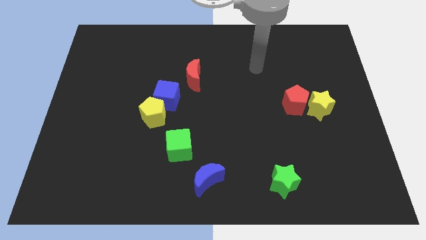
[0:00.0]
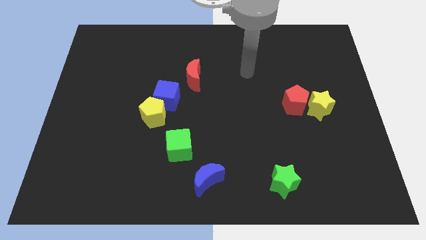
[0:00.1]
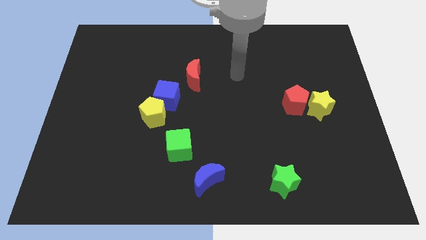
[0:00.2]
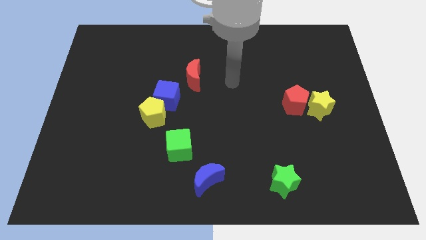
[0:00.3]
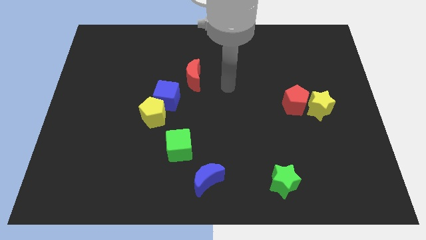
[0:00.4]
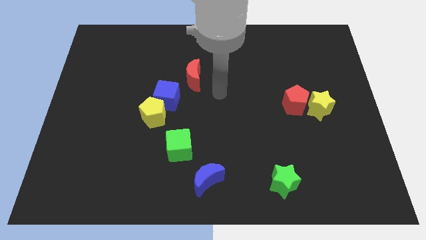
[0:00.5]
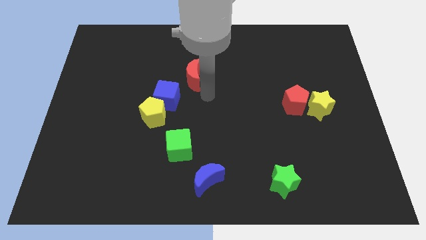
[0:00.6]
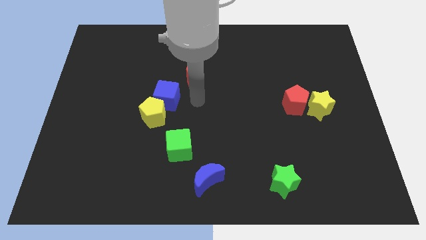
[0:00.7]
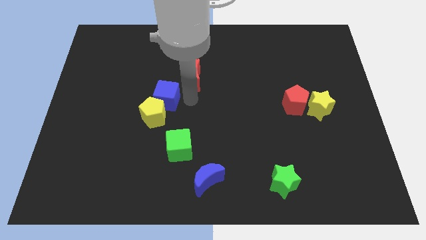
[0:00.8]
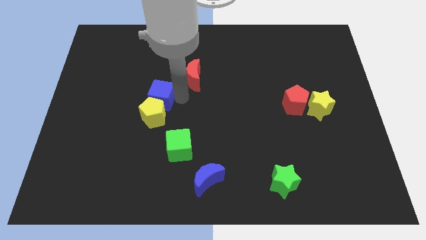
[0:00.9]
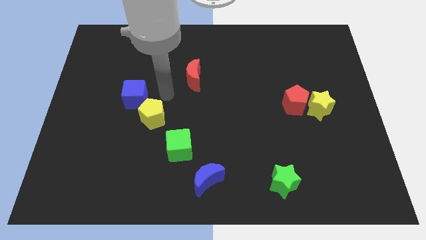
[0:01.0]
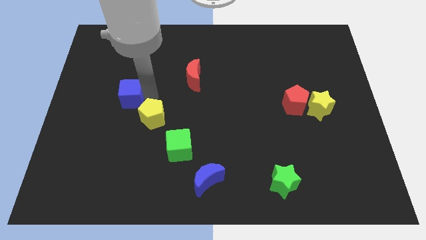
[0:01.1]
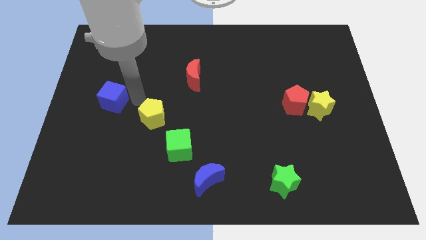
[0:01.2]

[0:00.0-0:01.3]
pull the yellow pentagon apart from the blue cube

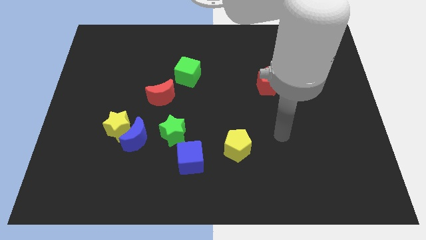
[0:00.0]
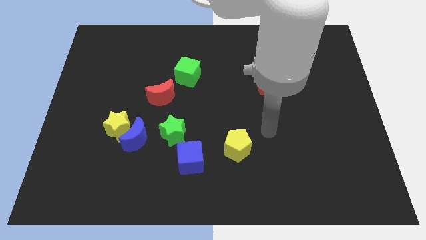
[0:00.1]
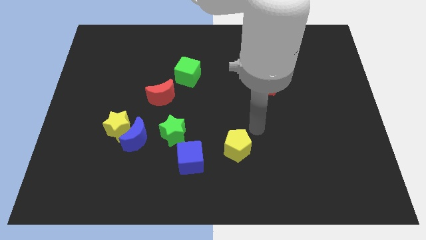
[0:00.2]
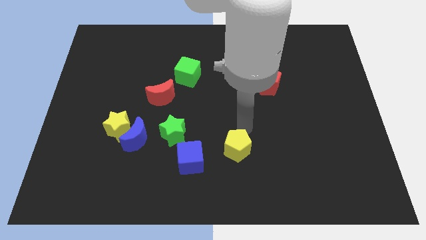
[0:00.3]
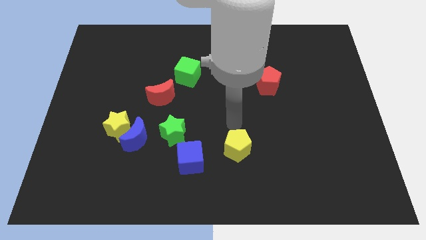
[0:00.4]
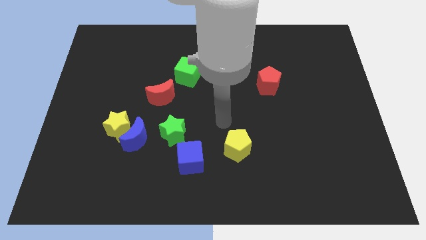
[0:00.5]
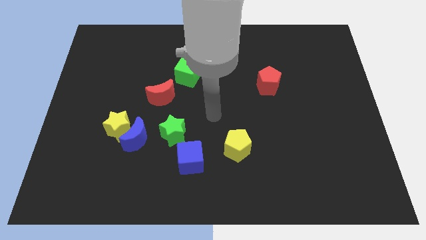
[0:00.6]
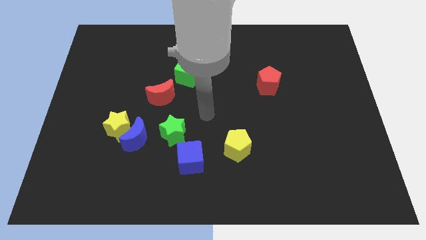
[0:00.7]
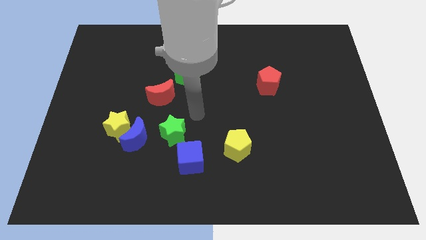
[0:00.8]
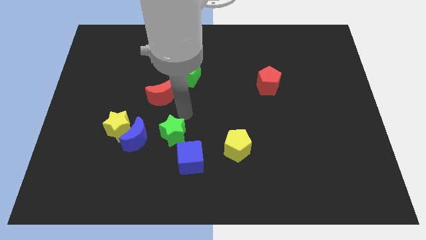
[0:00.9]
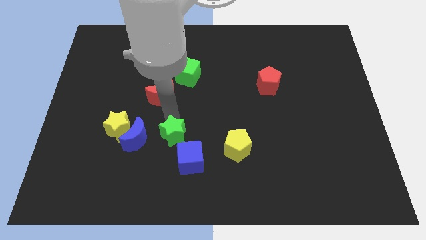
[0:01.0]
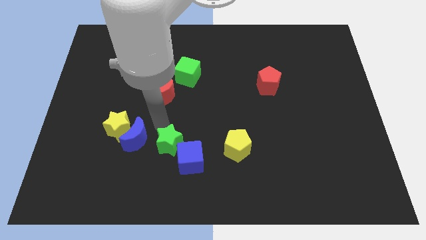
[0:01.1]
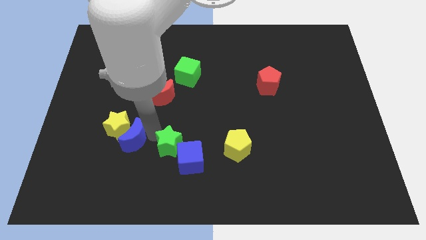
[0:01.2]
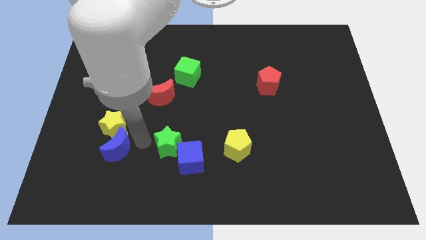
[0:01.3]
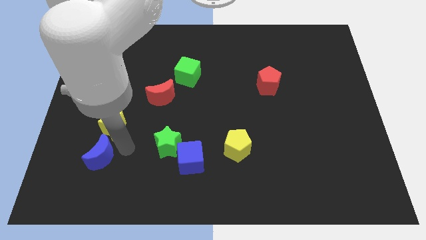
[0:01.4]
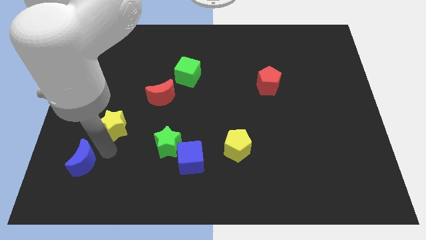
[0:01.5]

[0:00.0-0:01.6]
pull the yellow star apart from the blue moon

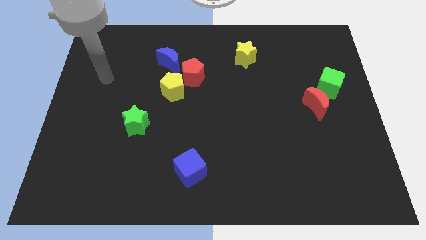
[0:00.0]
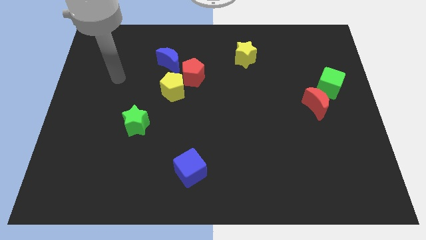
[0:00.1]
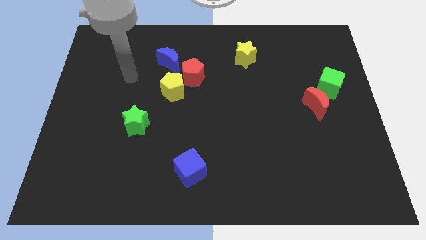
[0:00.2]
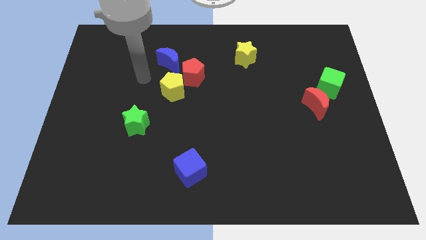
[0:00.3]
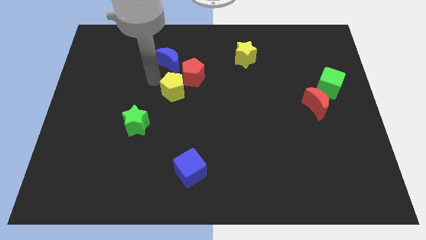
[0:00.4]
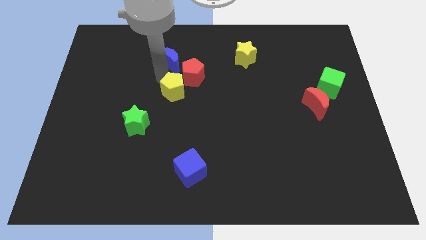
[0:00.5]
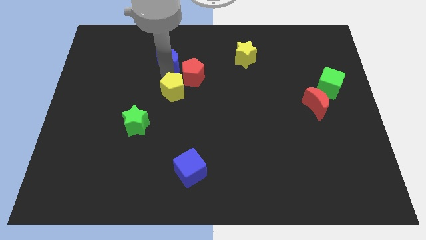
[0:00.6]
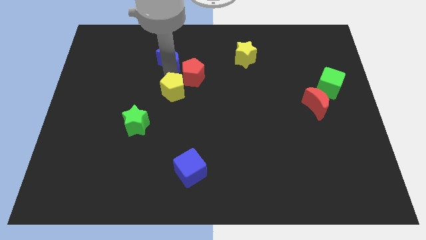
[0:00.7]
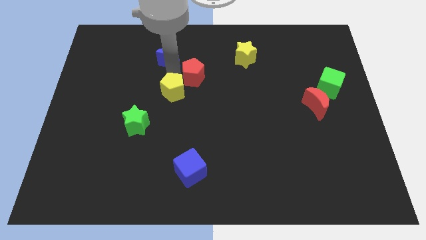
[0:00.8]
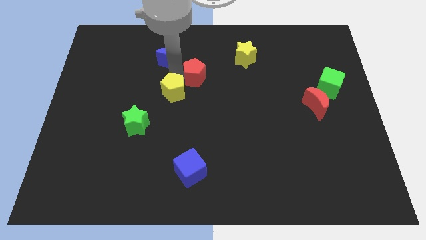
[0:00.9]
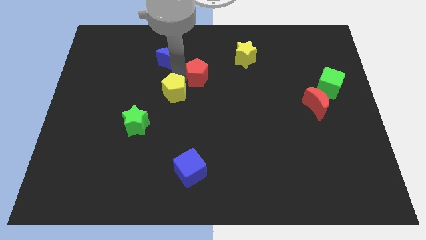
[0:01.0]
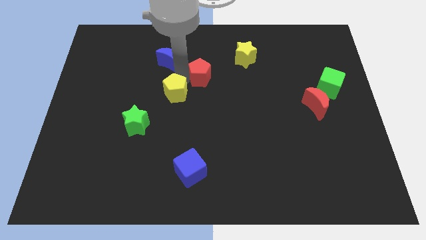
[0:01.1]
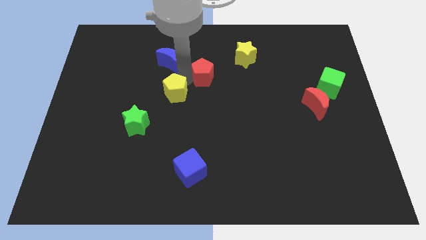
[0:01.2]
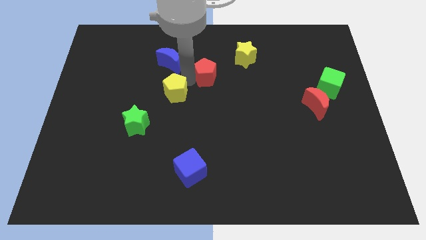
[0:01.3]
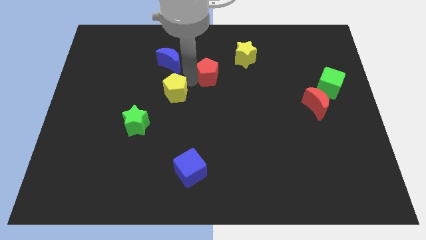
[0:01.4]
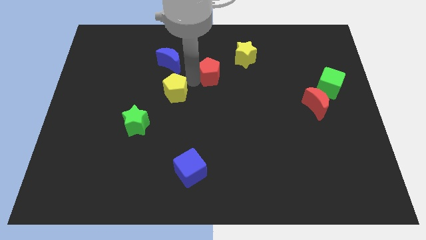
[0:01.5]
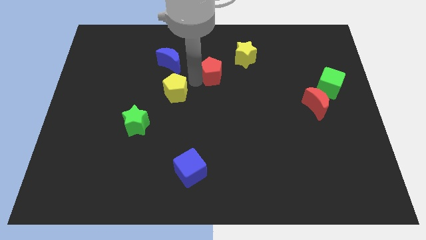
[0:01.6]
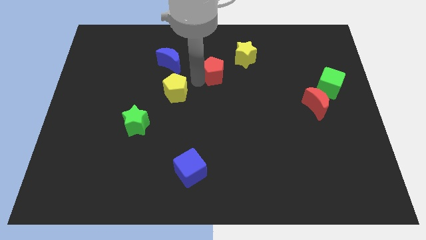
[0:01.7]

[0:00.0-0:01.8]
separate the red pentagon from the yellow pentagon and blue moon

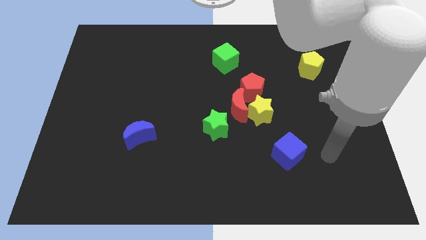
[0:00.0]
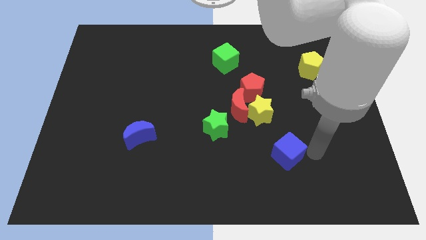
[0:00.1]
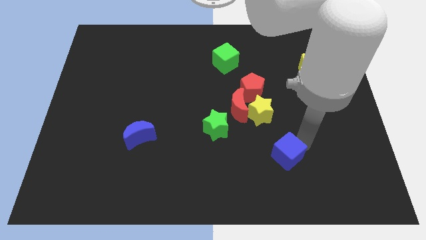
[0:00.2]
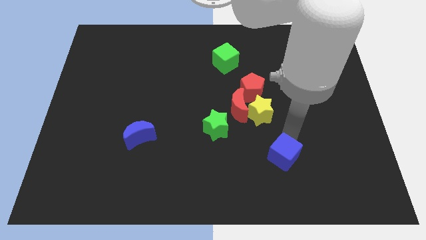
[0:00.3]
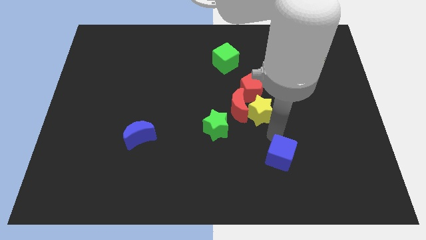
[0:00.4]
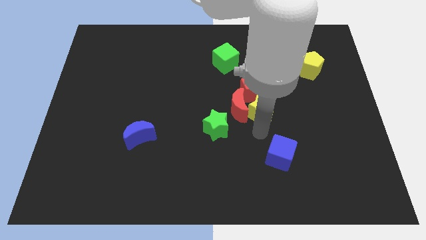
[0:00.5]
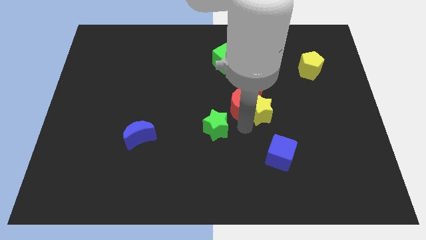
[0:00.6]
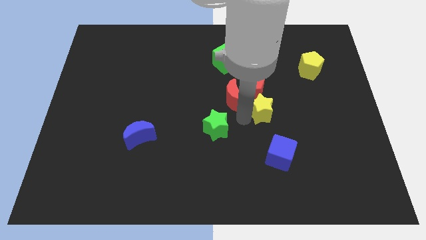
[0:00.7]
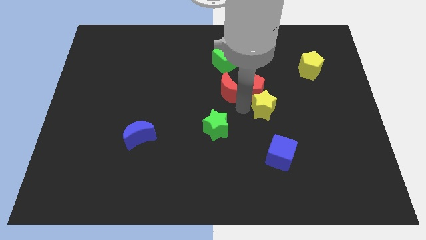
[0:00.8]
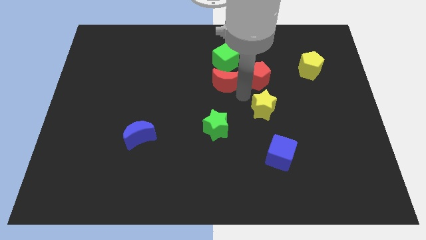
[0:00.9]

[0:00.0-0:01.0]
pull the yellow star apart from the red moon and red pentagon

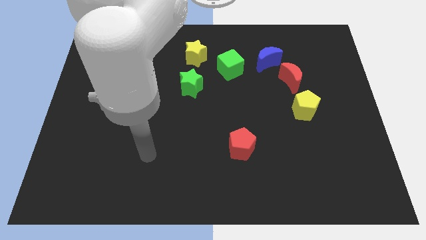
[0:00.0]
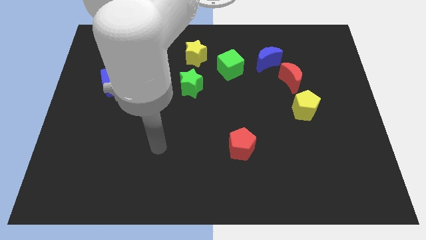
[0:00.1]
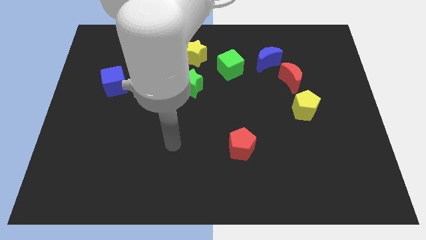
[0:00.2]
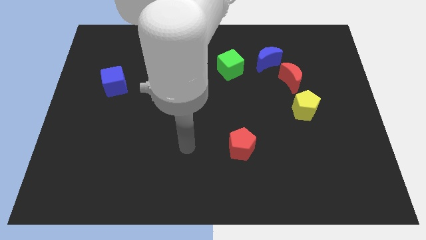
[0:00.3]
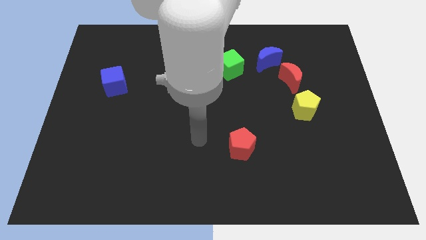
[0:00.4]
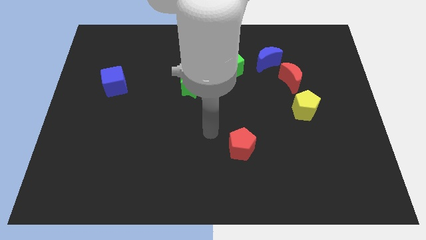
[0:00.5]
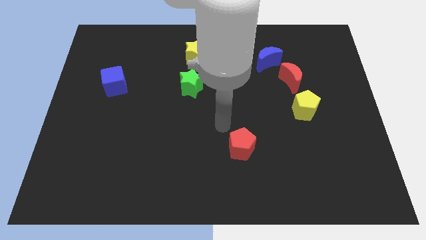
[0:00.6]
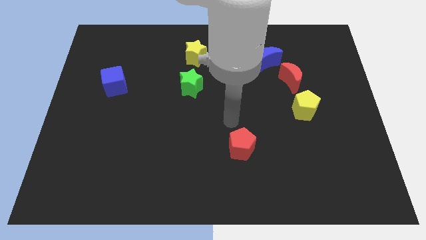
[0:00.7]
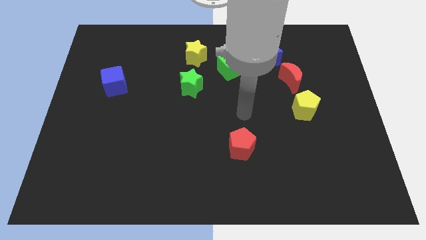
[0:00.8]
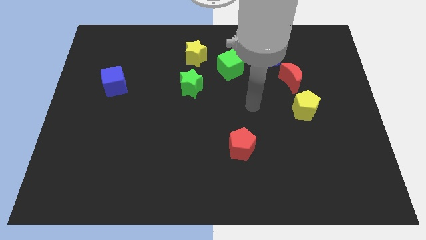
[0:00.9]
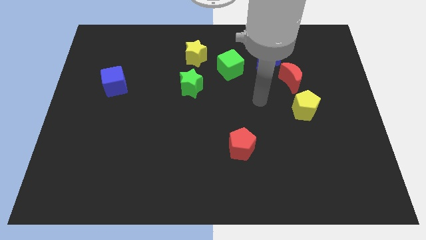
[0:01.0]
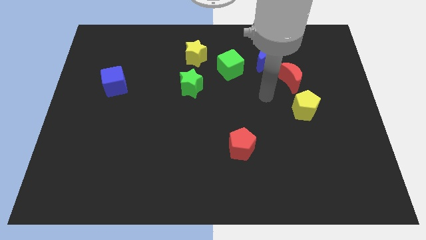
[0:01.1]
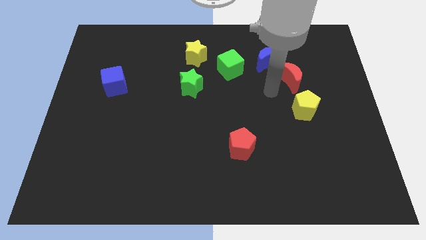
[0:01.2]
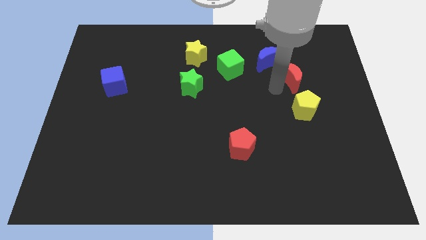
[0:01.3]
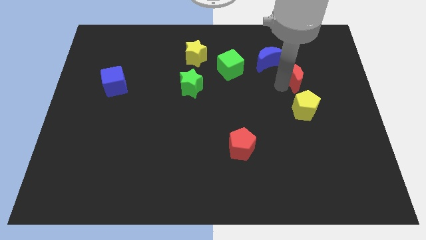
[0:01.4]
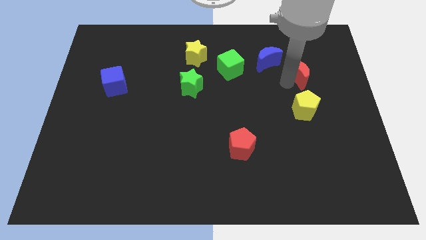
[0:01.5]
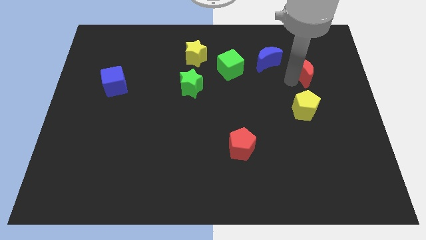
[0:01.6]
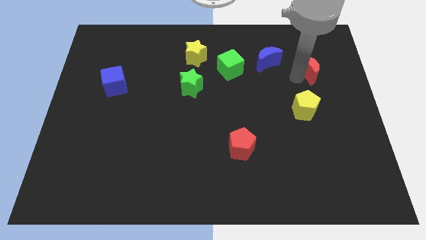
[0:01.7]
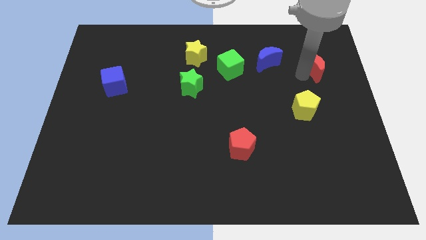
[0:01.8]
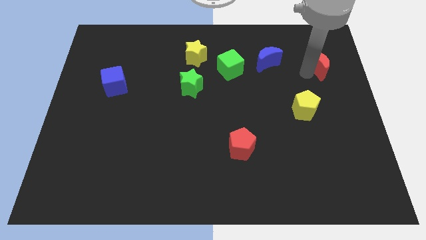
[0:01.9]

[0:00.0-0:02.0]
separate the red moon from the blue moon and yellow pentagon

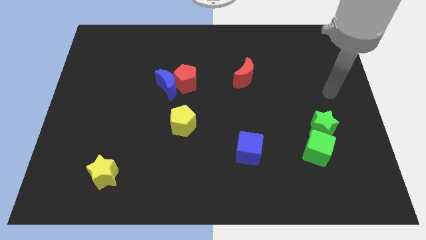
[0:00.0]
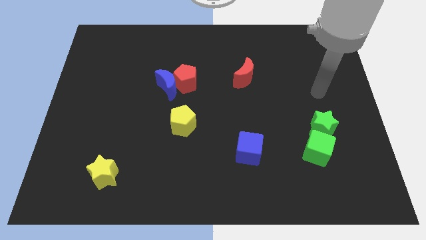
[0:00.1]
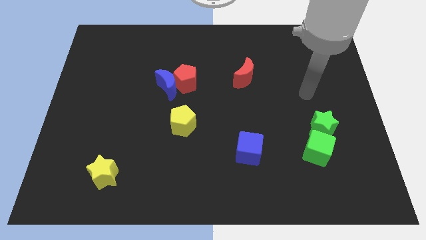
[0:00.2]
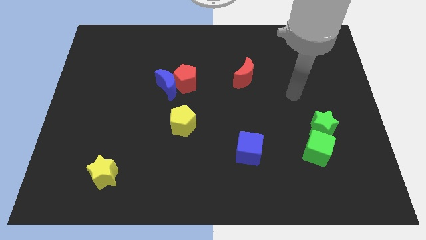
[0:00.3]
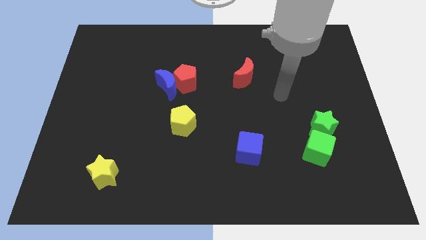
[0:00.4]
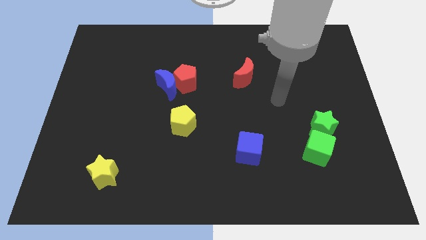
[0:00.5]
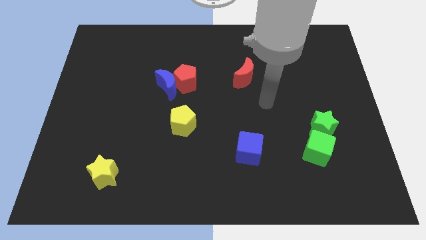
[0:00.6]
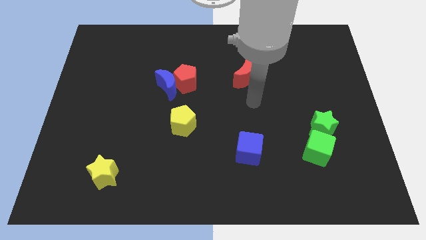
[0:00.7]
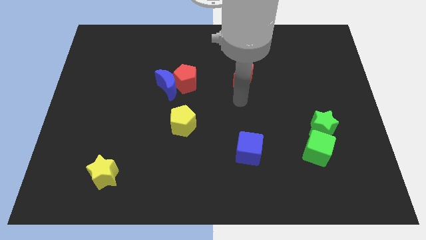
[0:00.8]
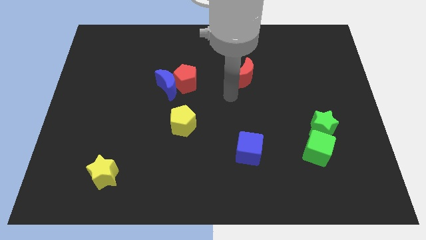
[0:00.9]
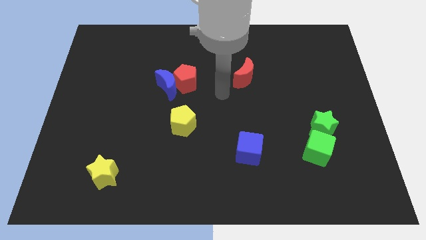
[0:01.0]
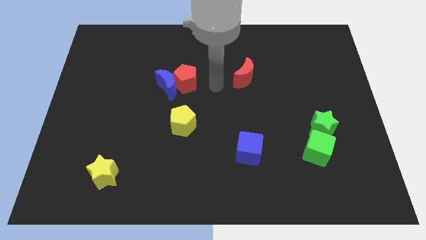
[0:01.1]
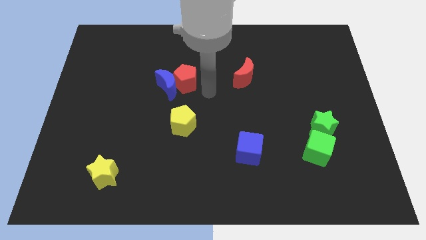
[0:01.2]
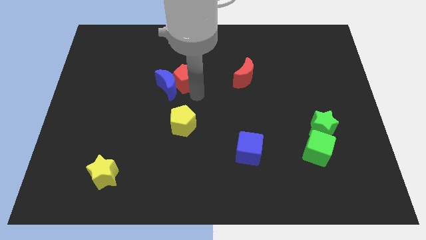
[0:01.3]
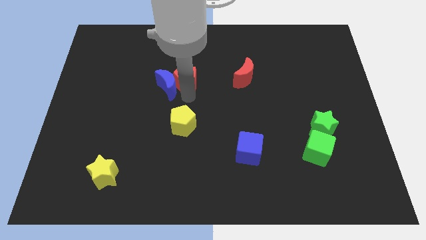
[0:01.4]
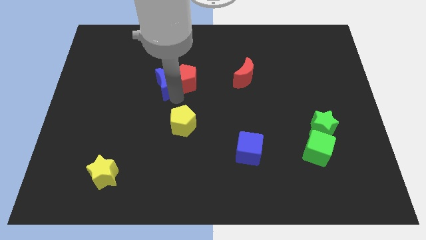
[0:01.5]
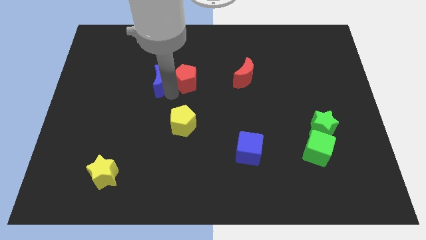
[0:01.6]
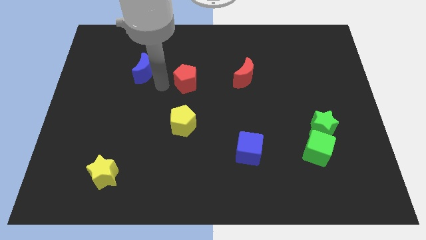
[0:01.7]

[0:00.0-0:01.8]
separate the red pentagon from the blue moon
